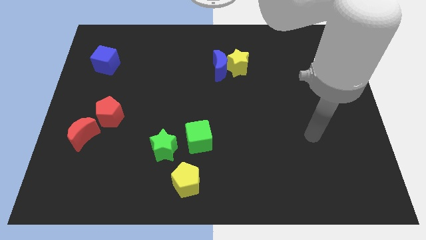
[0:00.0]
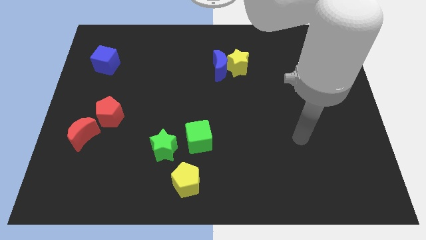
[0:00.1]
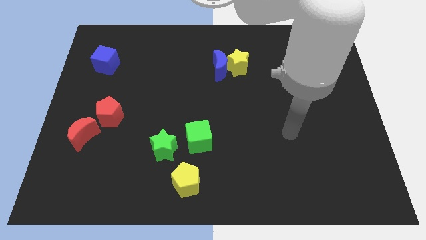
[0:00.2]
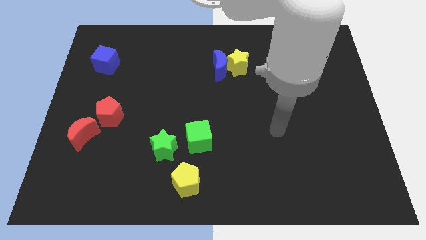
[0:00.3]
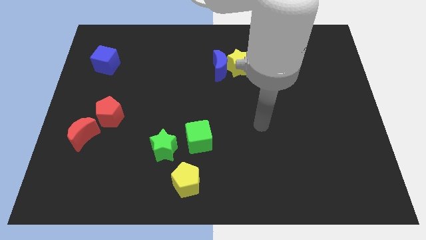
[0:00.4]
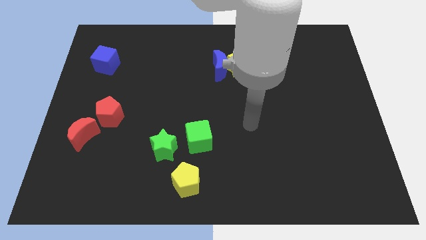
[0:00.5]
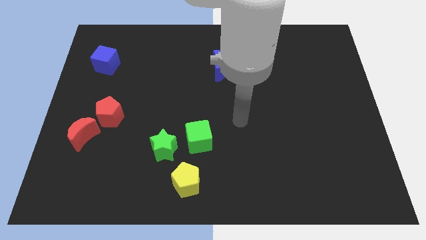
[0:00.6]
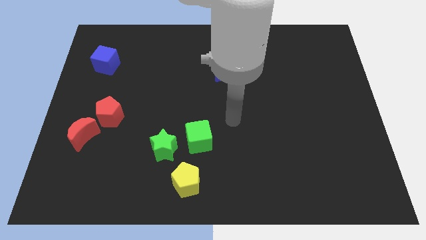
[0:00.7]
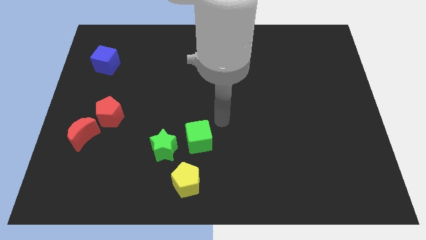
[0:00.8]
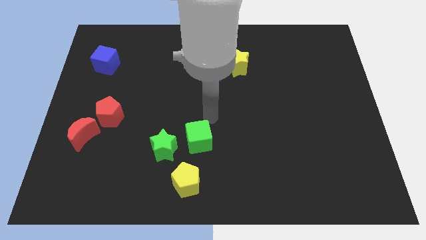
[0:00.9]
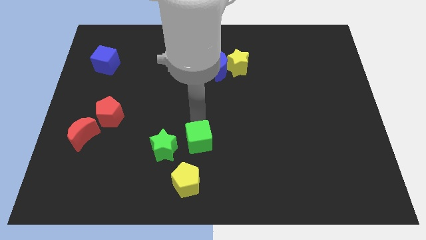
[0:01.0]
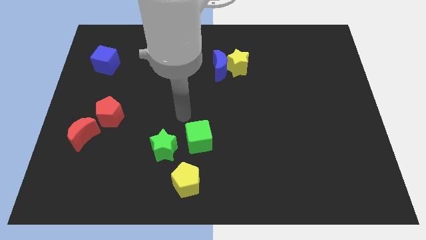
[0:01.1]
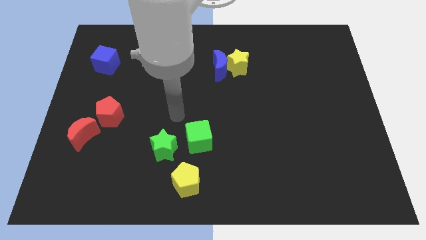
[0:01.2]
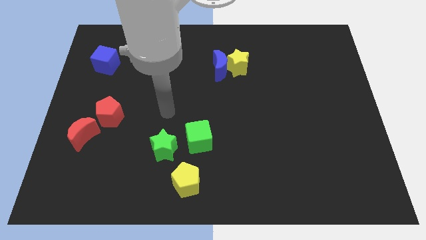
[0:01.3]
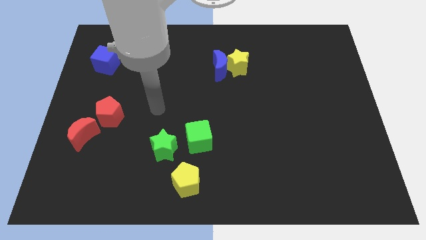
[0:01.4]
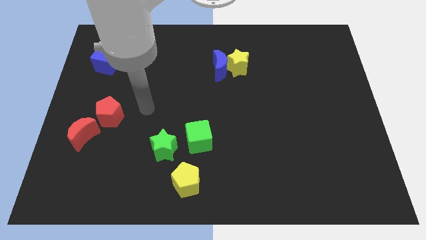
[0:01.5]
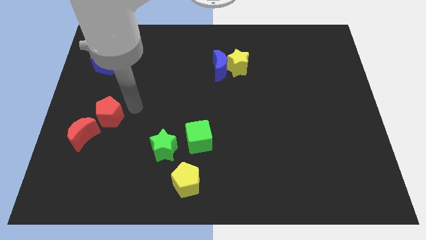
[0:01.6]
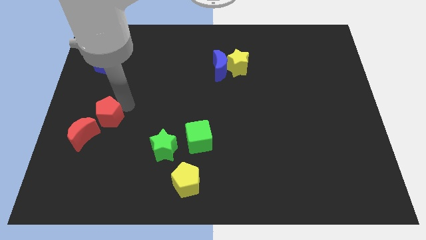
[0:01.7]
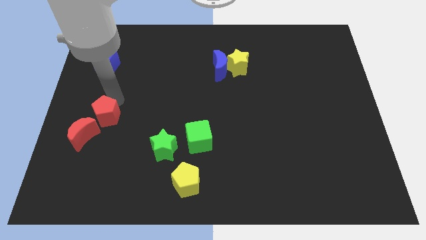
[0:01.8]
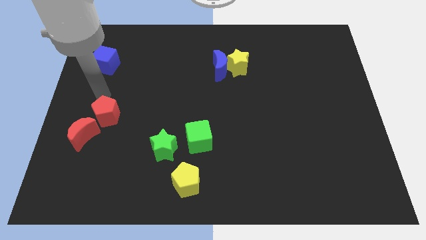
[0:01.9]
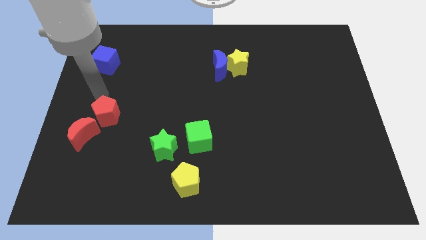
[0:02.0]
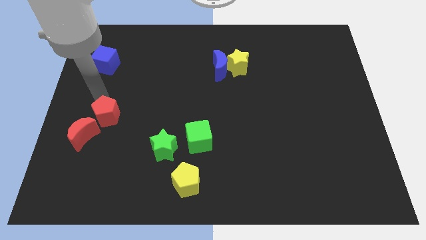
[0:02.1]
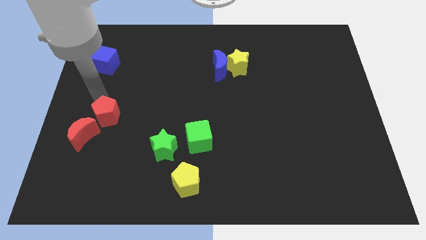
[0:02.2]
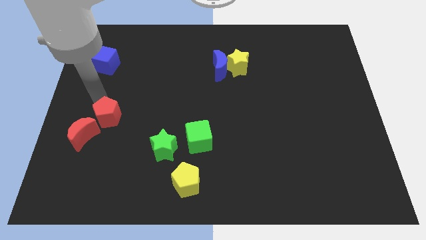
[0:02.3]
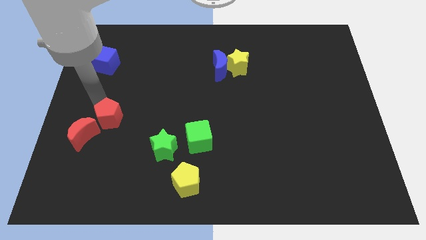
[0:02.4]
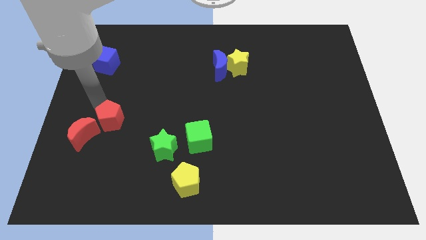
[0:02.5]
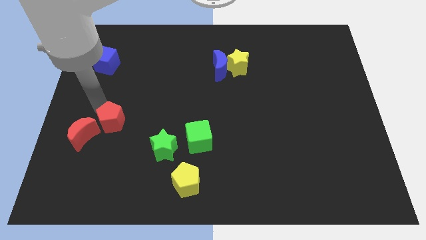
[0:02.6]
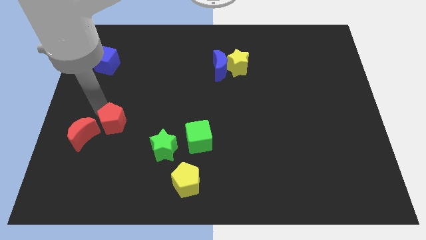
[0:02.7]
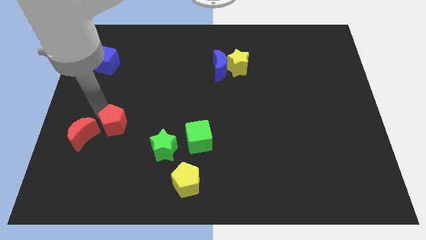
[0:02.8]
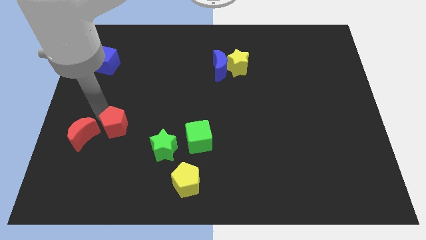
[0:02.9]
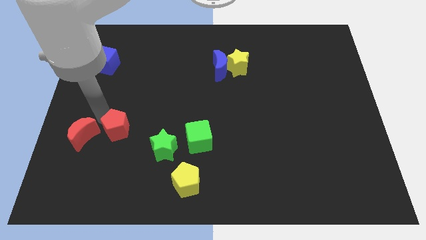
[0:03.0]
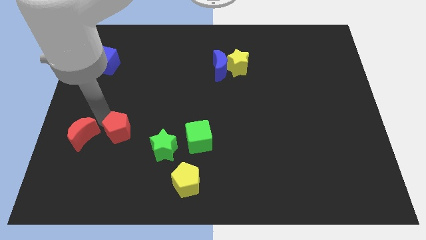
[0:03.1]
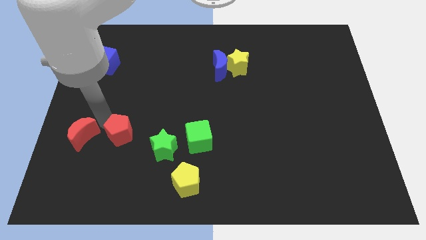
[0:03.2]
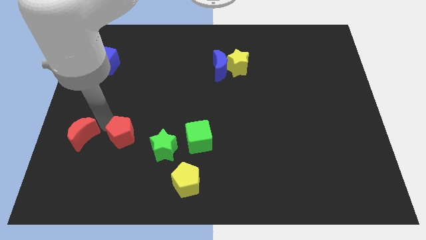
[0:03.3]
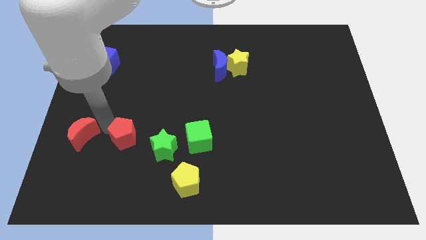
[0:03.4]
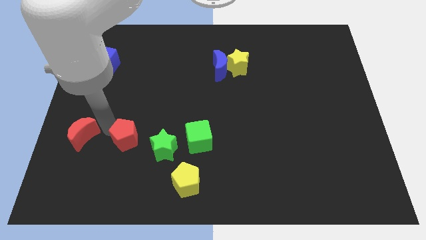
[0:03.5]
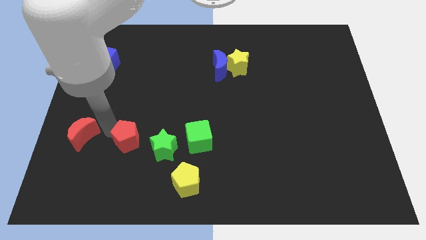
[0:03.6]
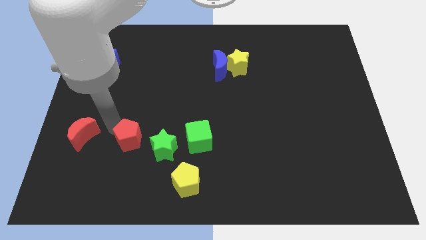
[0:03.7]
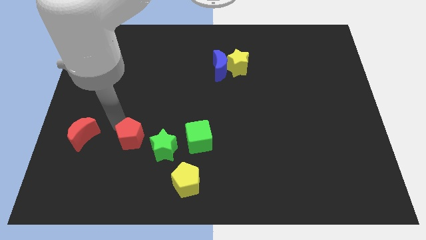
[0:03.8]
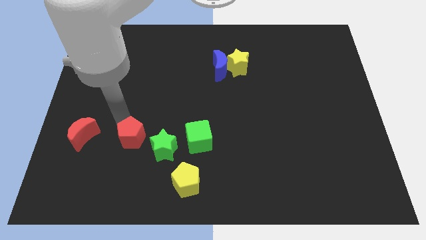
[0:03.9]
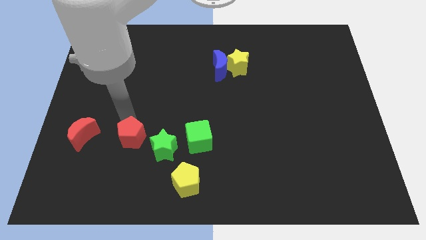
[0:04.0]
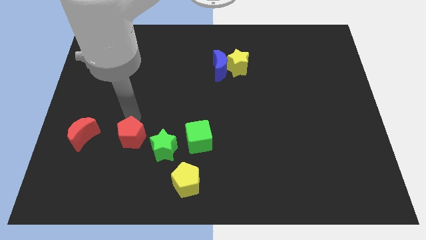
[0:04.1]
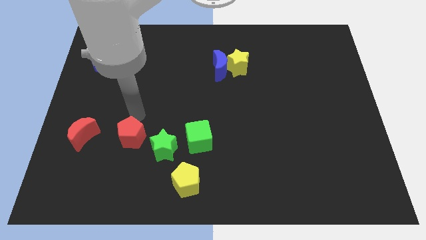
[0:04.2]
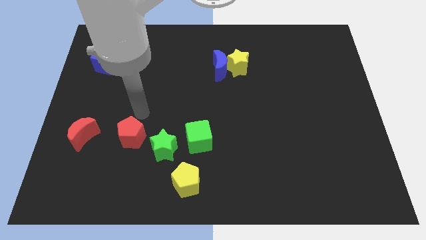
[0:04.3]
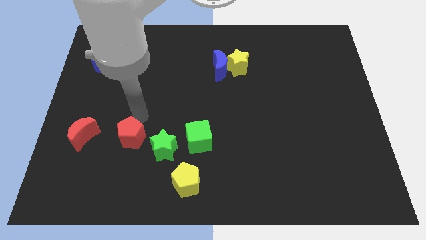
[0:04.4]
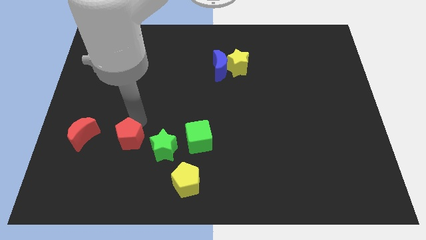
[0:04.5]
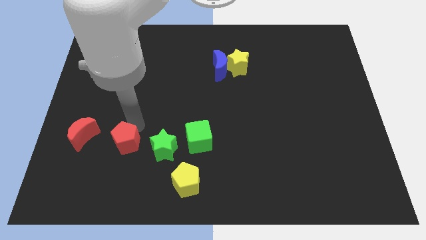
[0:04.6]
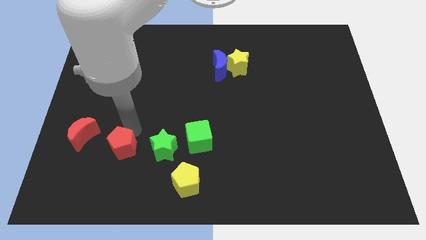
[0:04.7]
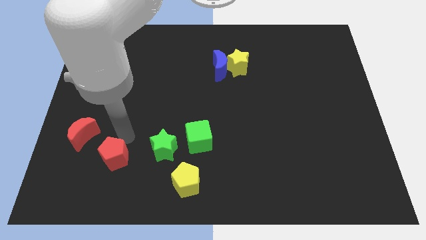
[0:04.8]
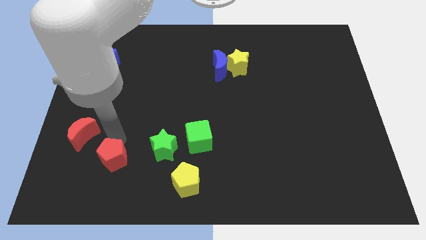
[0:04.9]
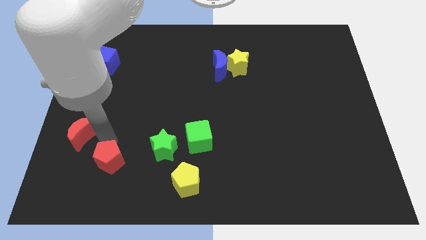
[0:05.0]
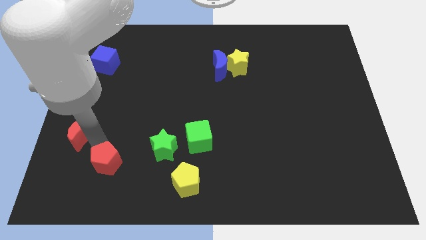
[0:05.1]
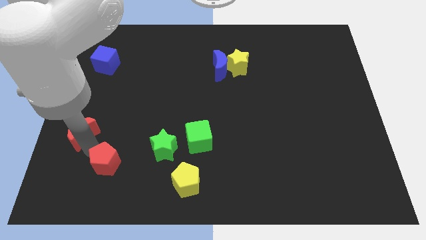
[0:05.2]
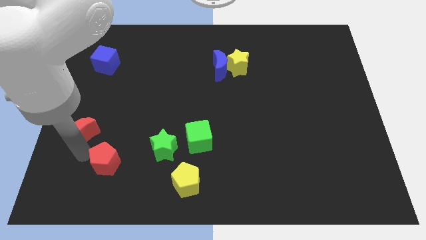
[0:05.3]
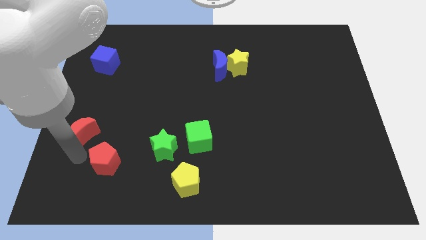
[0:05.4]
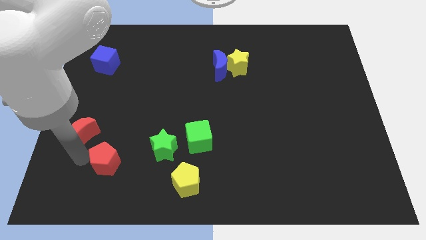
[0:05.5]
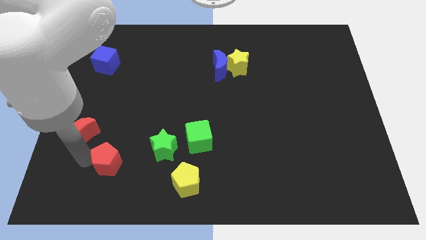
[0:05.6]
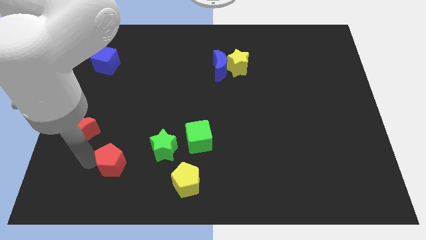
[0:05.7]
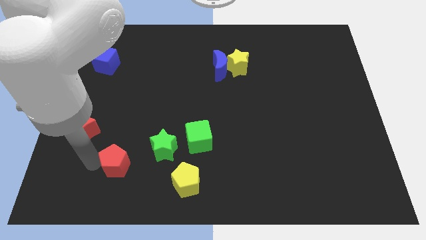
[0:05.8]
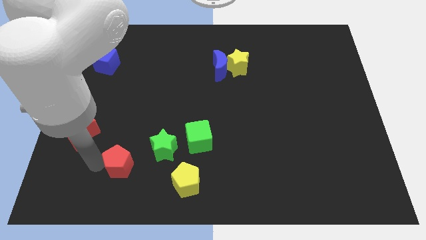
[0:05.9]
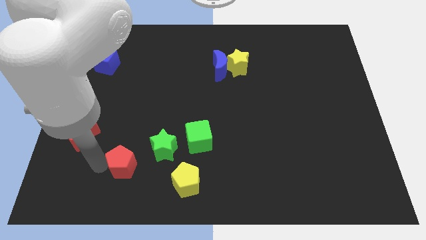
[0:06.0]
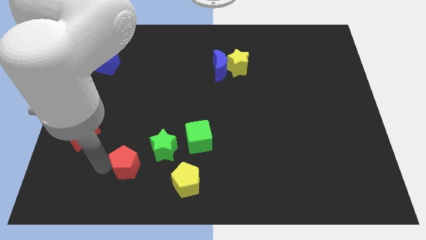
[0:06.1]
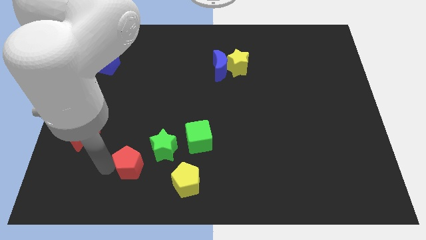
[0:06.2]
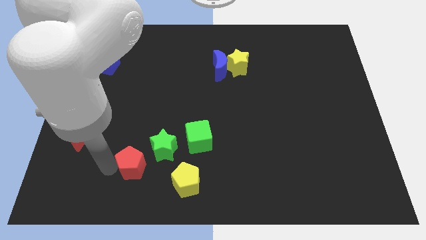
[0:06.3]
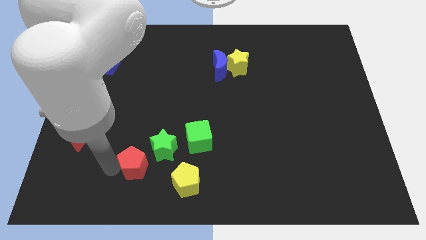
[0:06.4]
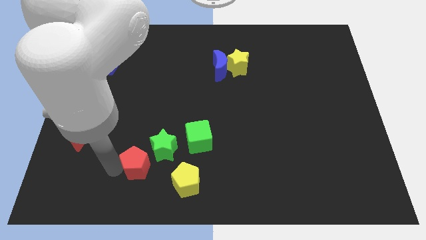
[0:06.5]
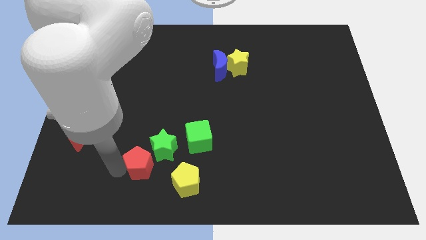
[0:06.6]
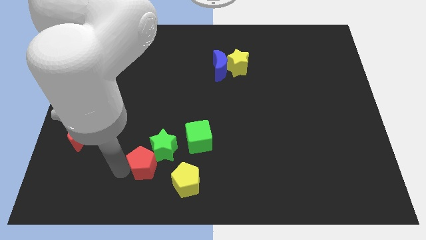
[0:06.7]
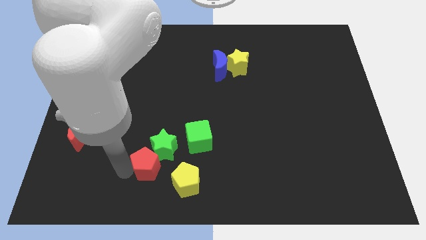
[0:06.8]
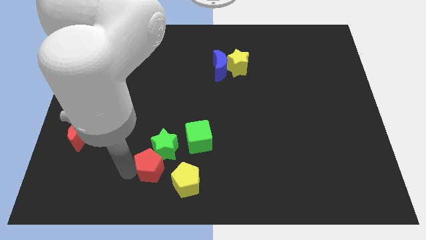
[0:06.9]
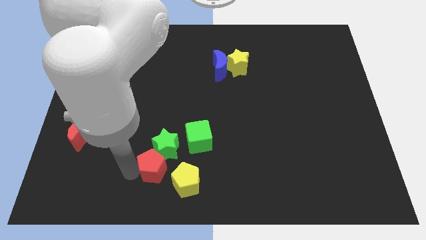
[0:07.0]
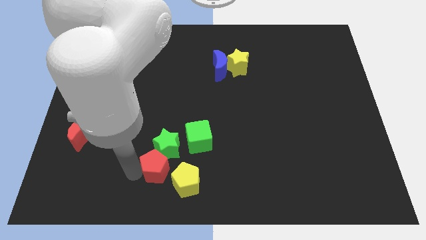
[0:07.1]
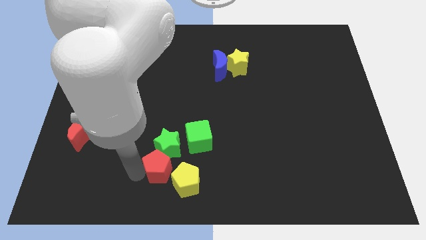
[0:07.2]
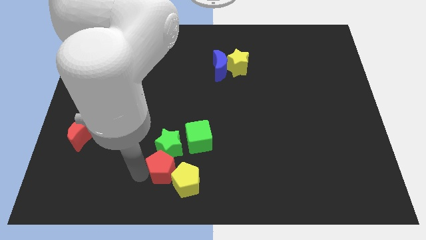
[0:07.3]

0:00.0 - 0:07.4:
put the red pentagon towards the yellow pentagon
